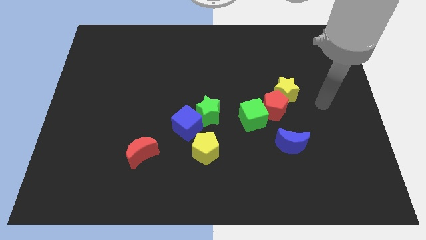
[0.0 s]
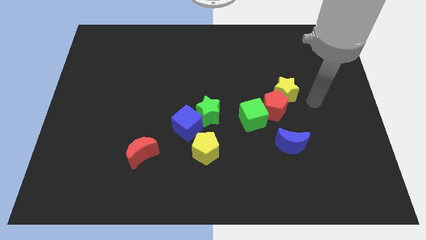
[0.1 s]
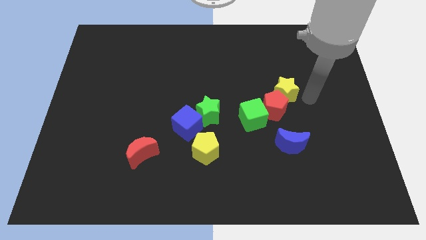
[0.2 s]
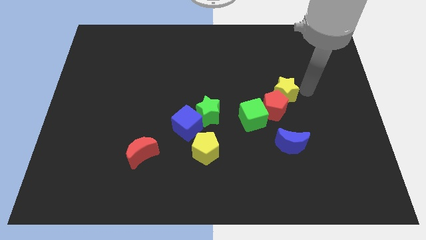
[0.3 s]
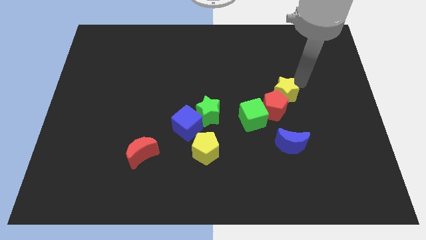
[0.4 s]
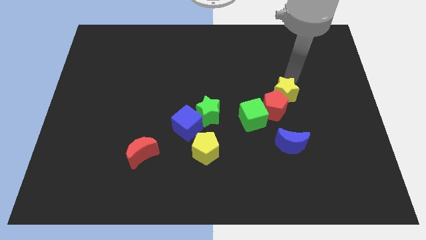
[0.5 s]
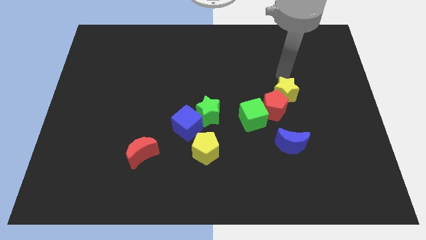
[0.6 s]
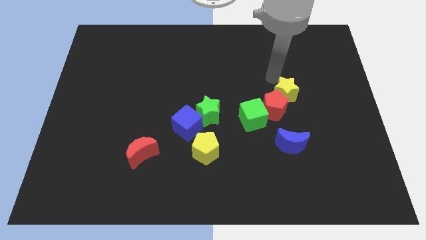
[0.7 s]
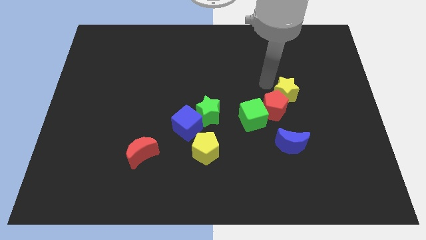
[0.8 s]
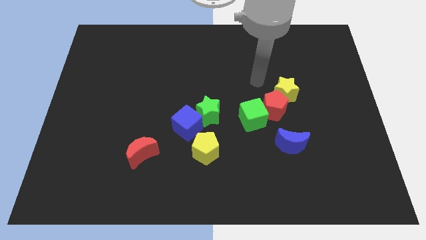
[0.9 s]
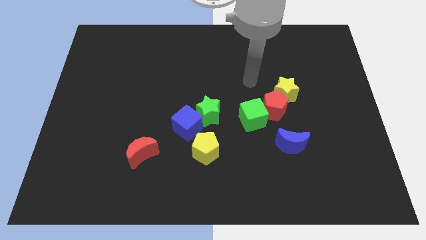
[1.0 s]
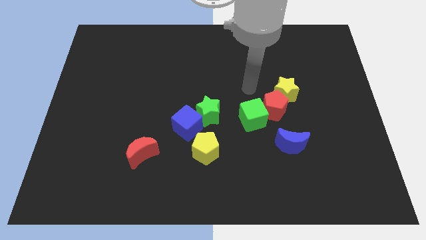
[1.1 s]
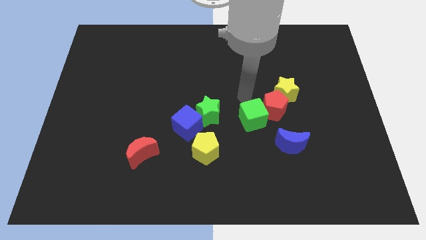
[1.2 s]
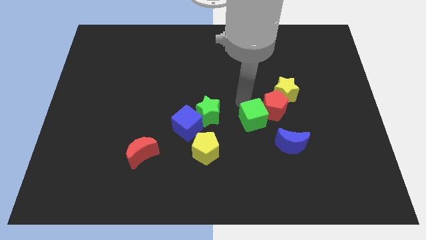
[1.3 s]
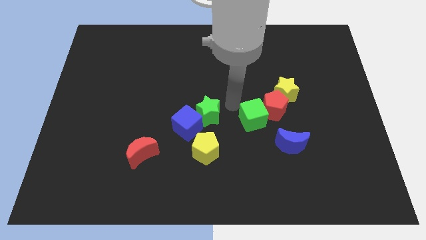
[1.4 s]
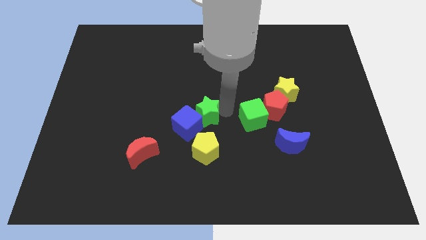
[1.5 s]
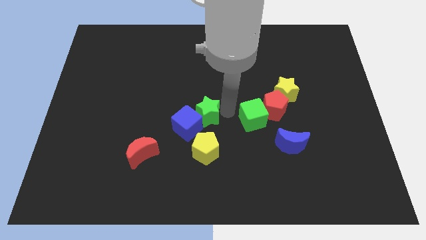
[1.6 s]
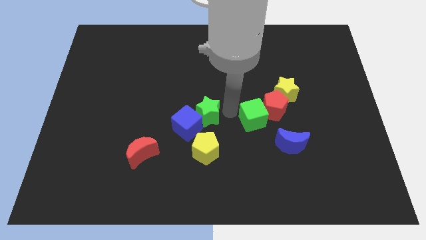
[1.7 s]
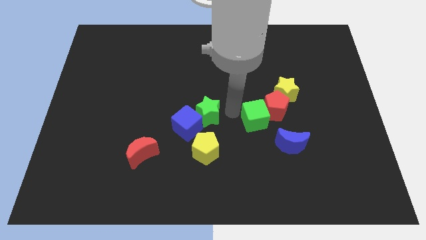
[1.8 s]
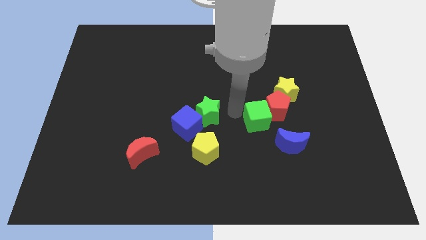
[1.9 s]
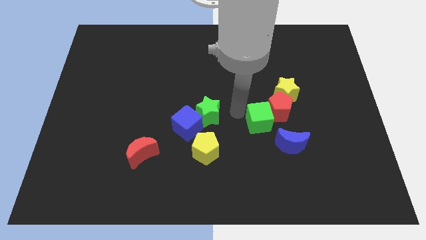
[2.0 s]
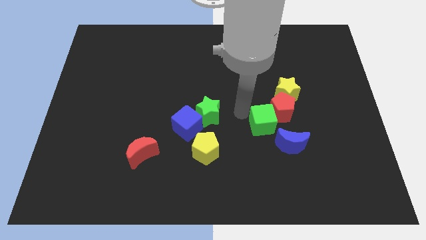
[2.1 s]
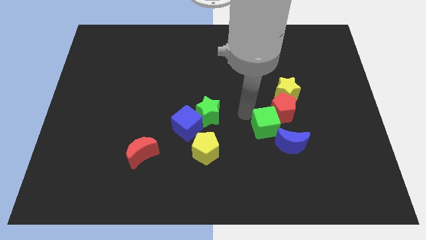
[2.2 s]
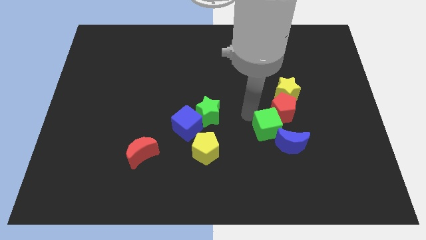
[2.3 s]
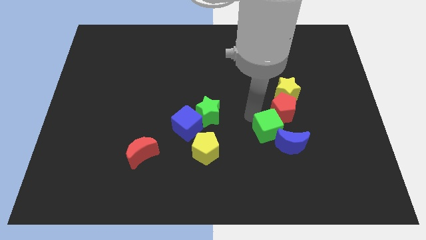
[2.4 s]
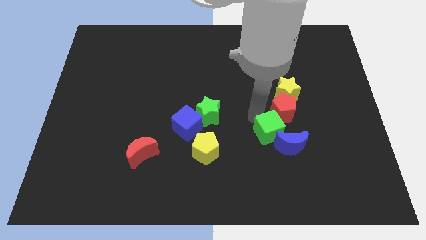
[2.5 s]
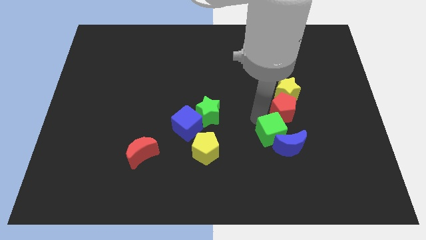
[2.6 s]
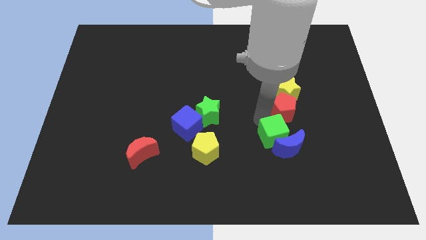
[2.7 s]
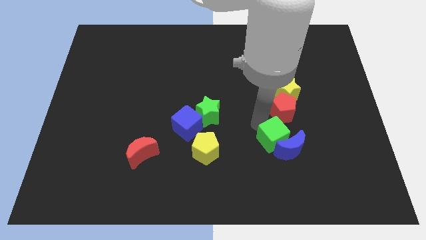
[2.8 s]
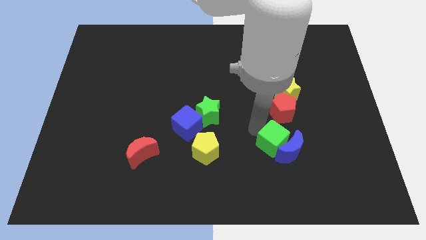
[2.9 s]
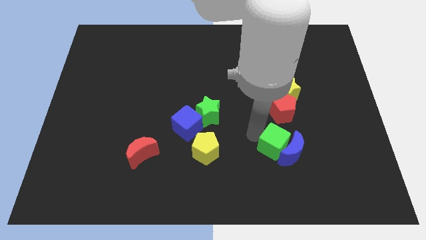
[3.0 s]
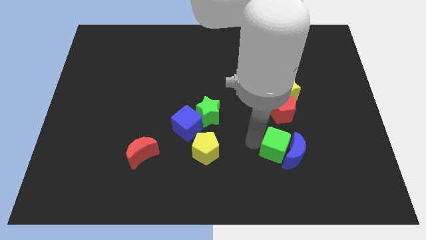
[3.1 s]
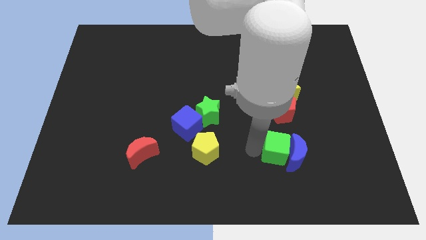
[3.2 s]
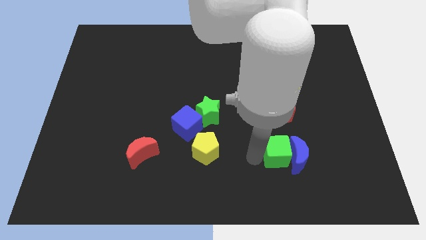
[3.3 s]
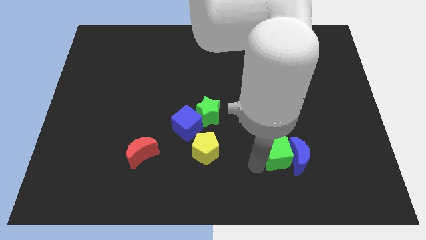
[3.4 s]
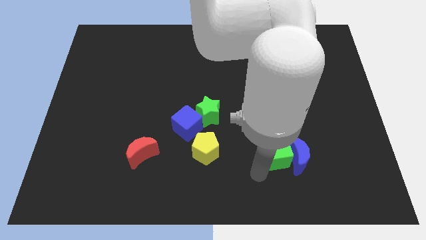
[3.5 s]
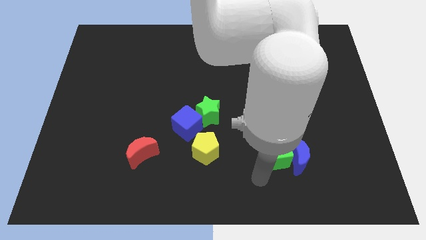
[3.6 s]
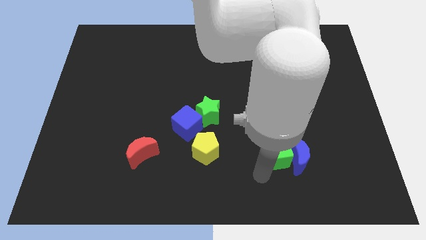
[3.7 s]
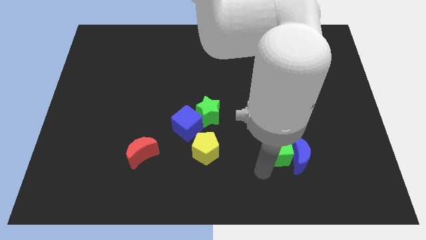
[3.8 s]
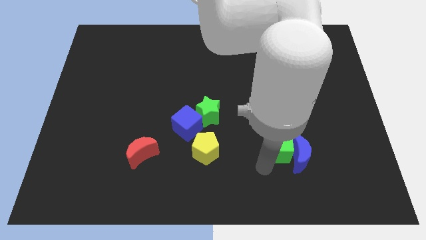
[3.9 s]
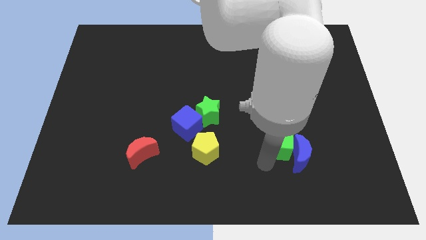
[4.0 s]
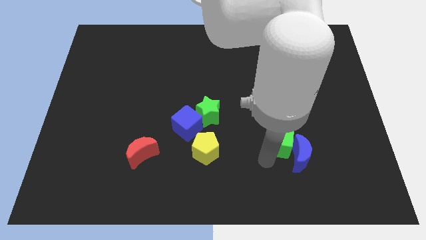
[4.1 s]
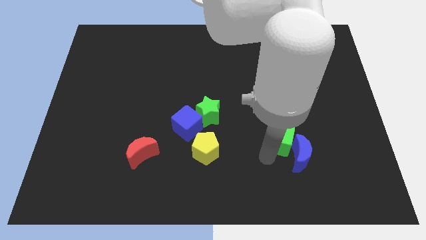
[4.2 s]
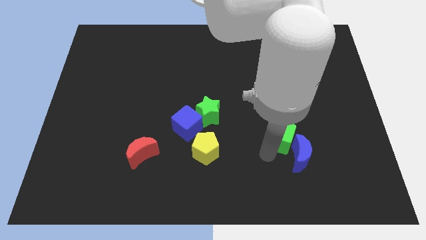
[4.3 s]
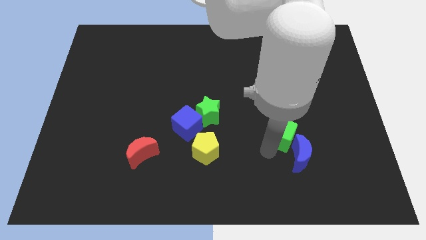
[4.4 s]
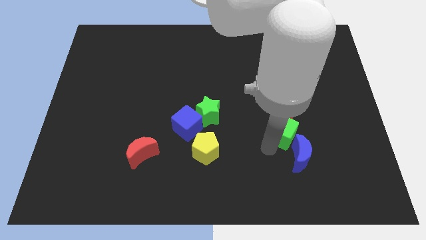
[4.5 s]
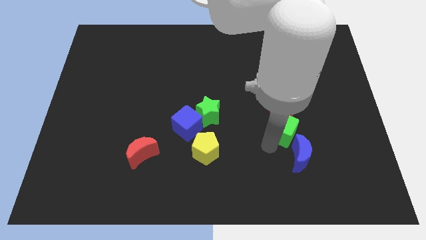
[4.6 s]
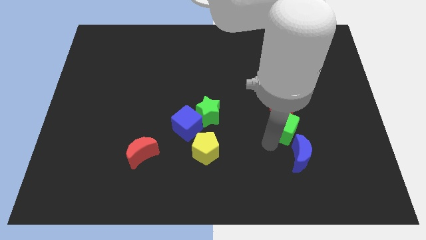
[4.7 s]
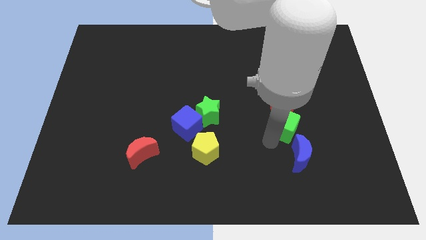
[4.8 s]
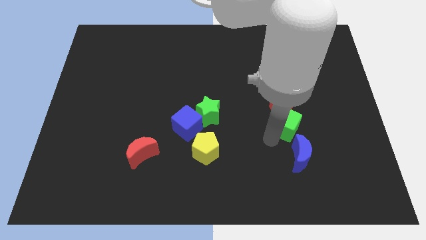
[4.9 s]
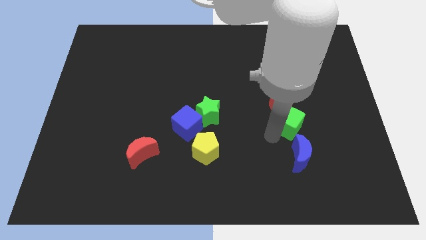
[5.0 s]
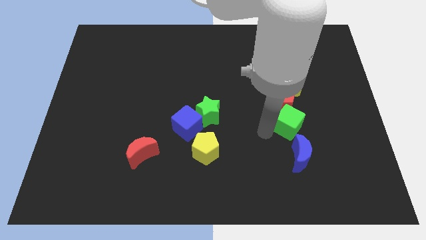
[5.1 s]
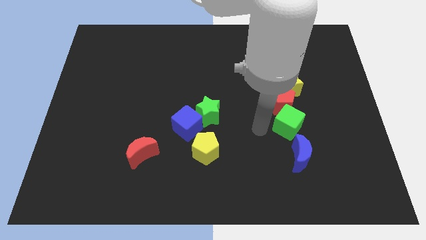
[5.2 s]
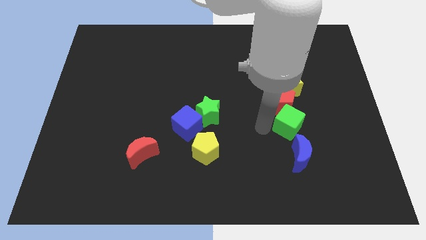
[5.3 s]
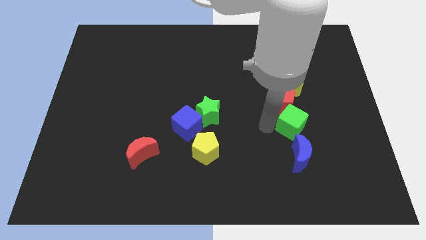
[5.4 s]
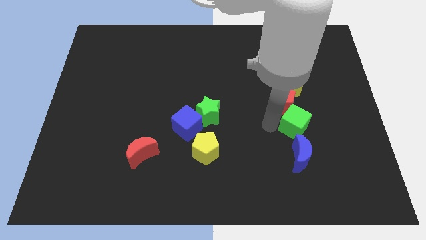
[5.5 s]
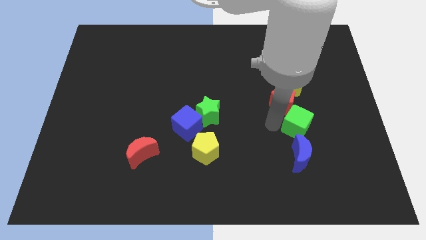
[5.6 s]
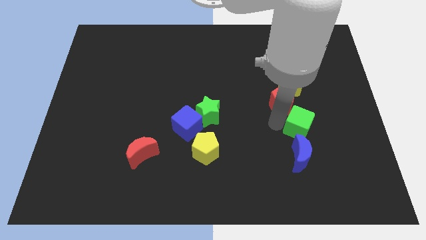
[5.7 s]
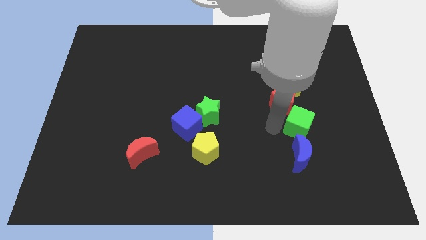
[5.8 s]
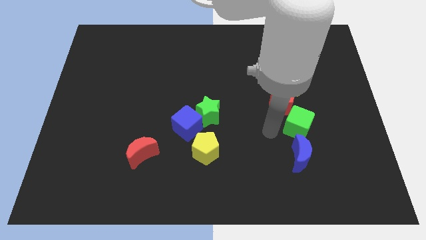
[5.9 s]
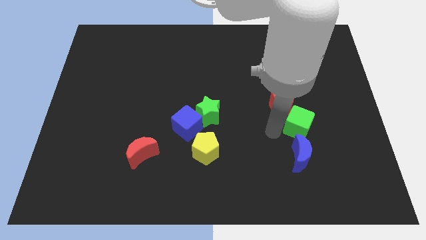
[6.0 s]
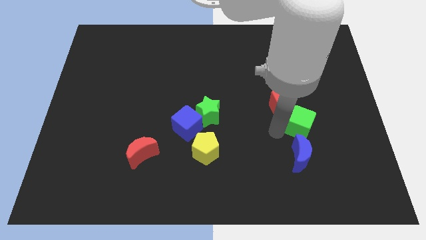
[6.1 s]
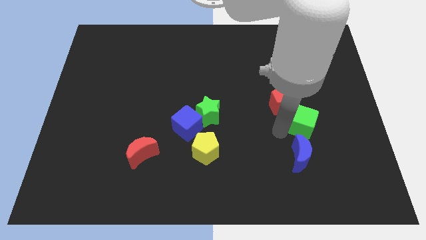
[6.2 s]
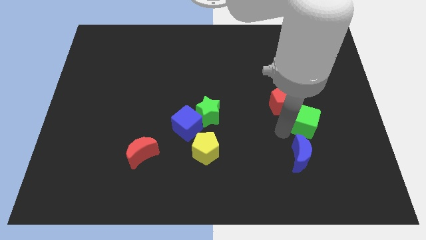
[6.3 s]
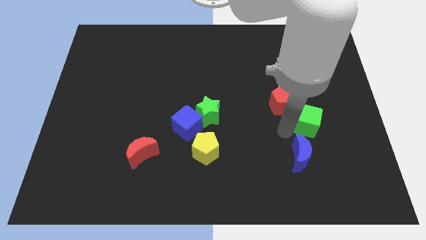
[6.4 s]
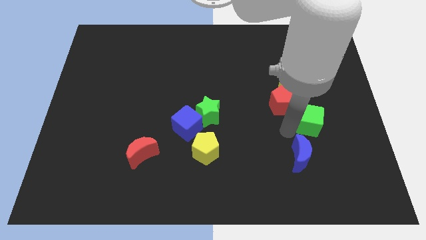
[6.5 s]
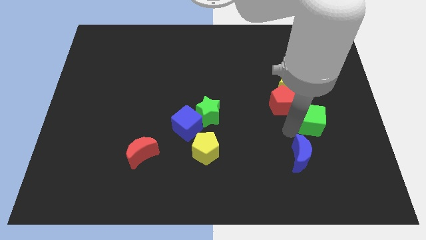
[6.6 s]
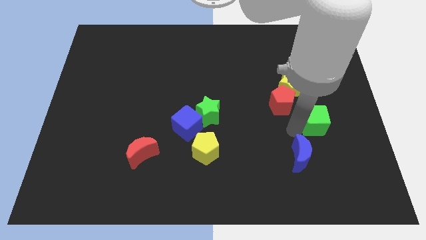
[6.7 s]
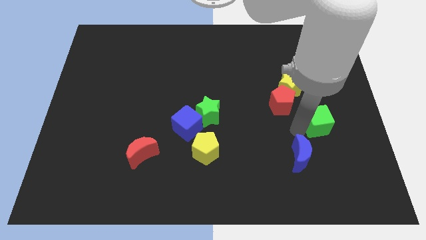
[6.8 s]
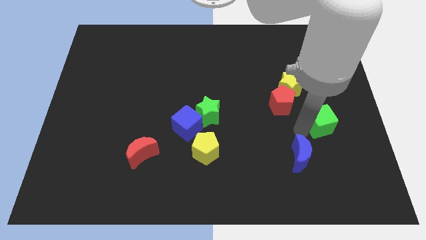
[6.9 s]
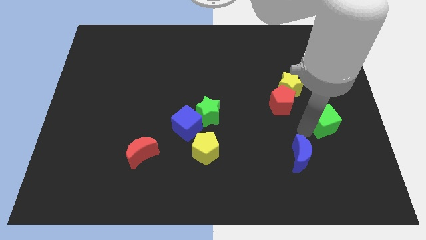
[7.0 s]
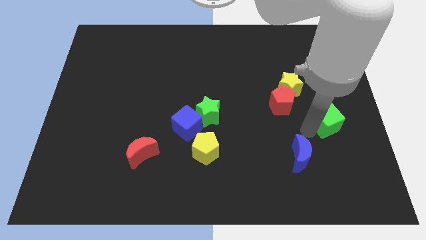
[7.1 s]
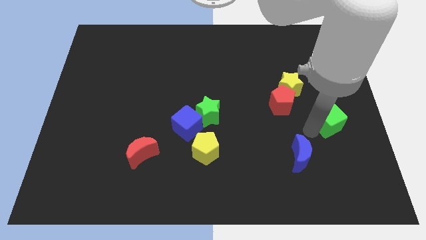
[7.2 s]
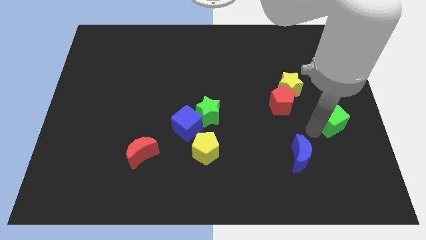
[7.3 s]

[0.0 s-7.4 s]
put the green cube to the right side
